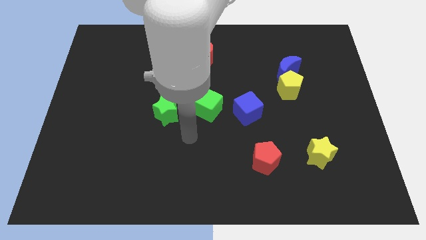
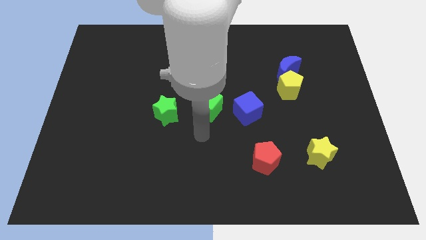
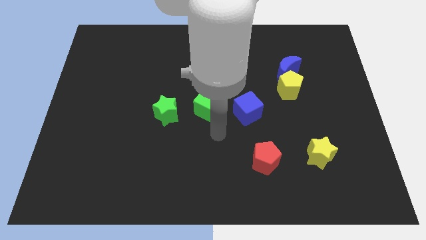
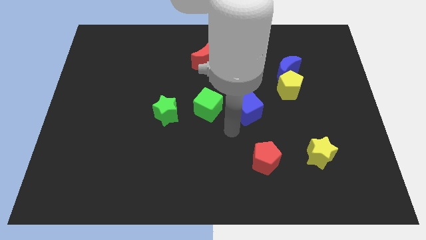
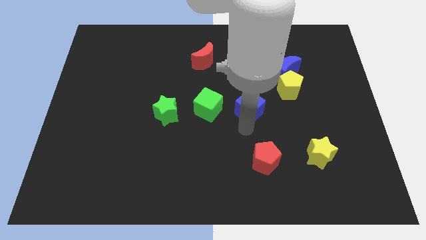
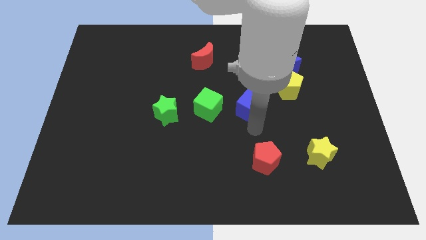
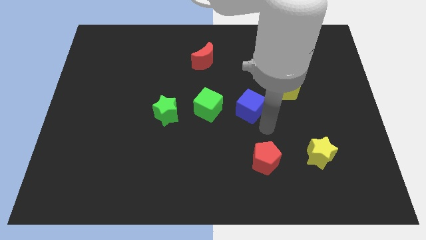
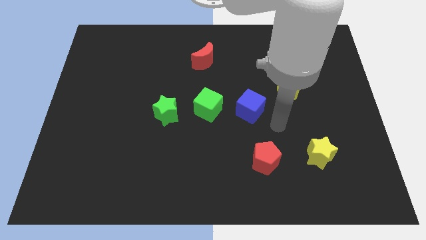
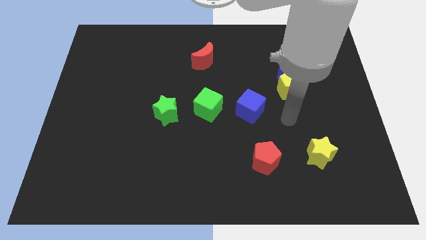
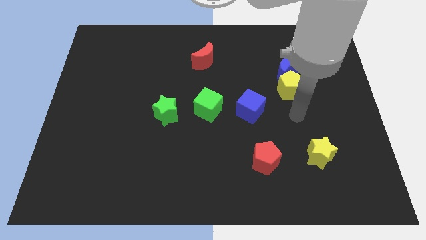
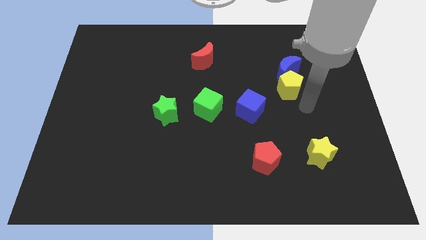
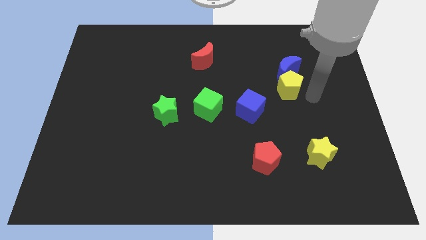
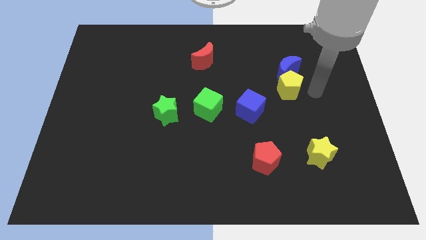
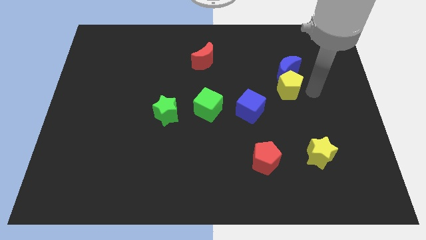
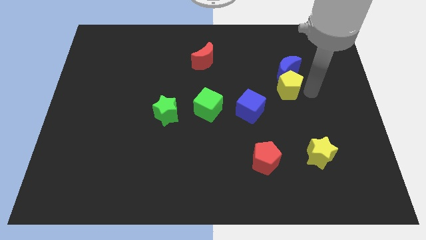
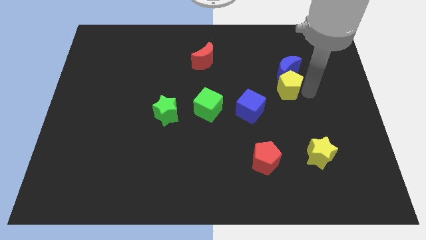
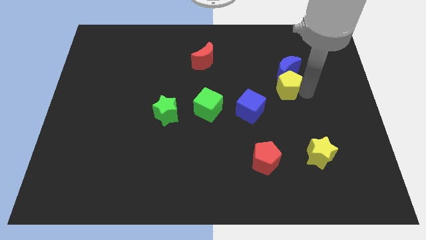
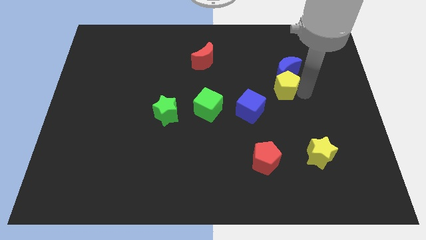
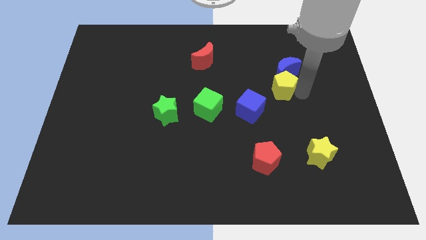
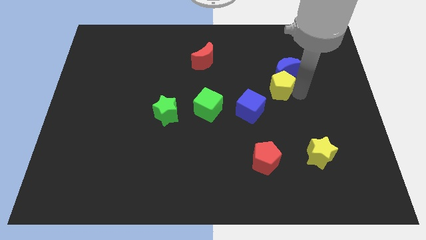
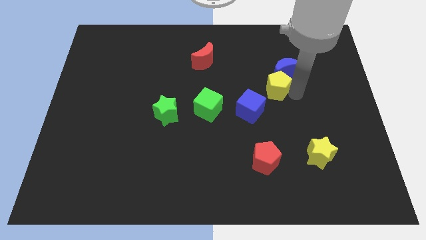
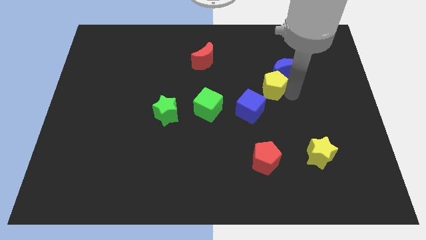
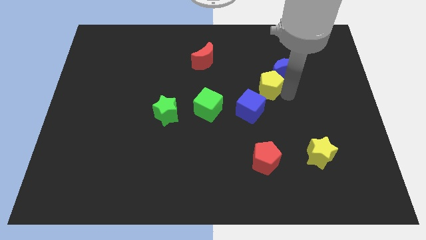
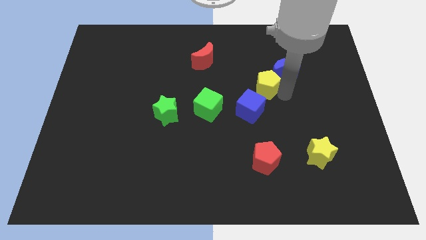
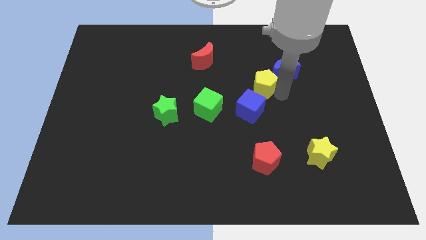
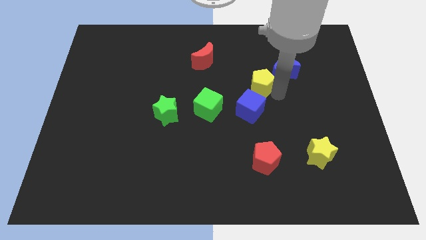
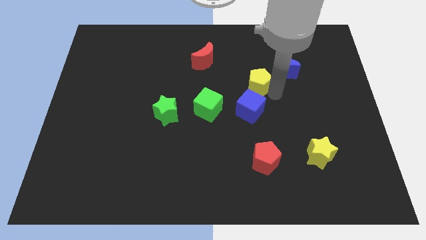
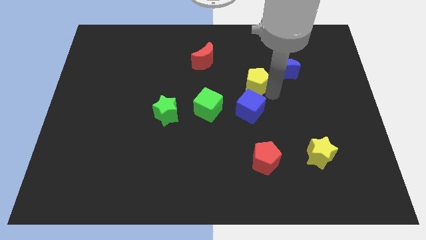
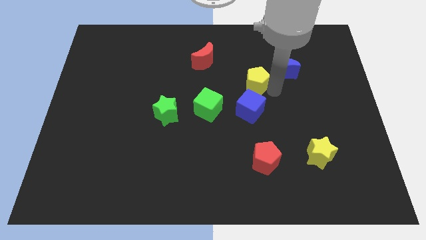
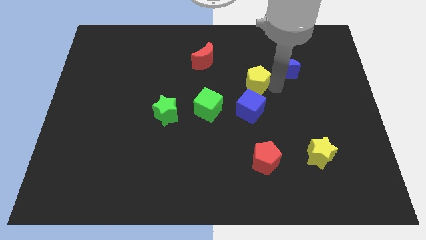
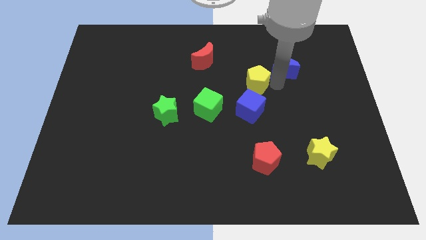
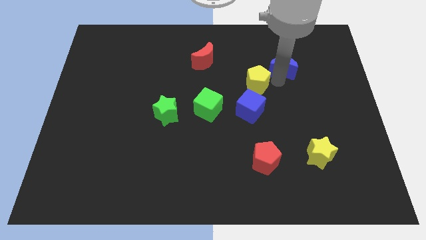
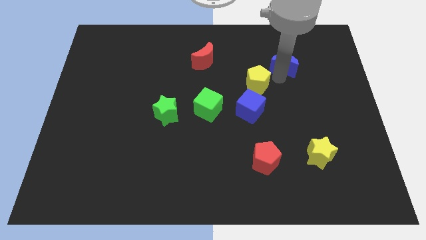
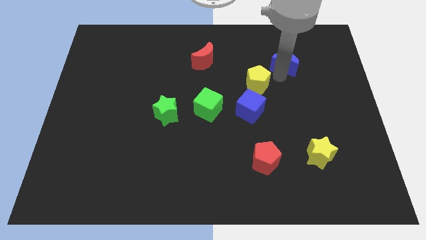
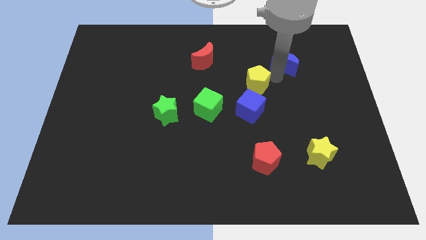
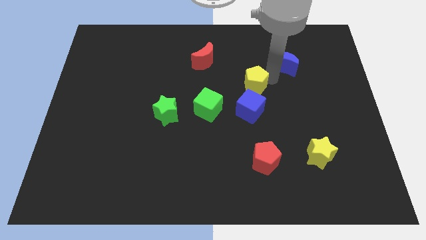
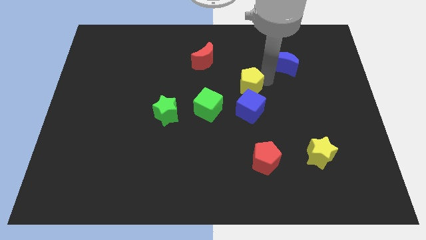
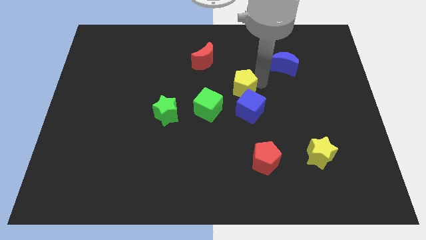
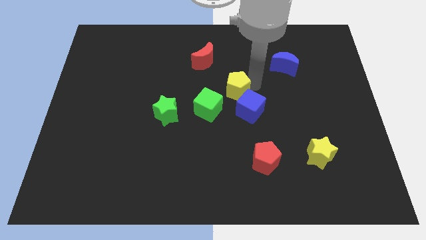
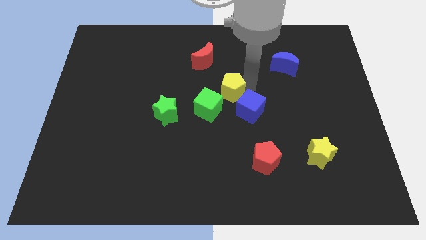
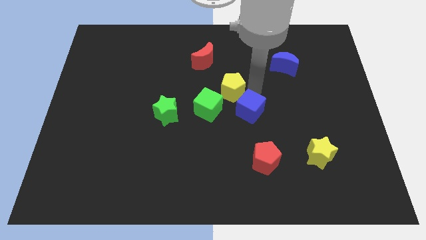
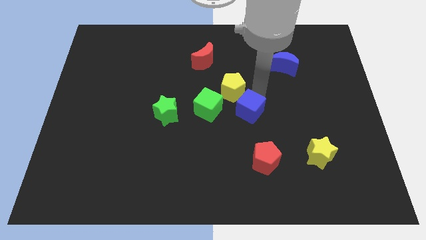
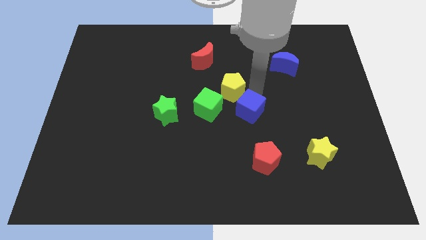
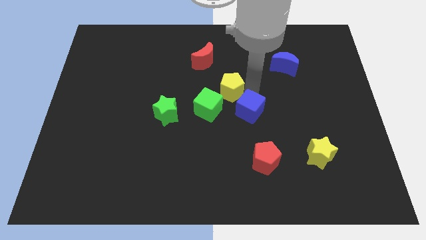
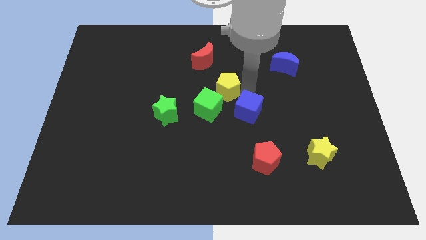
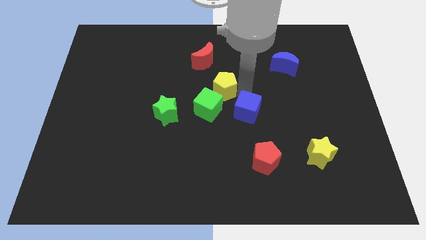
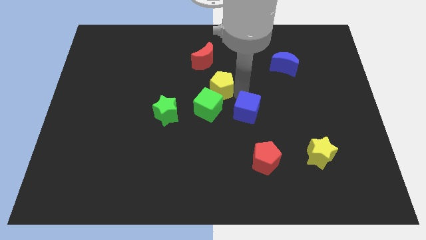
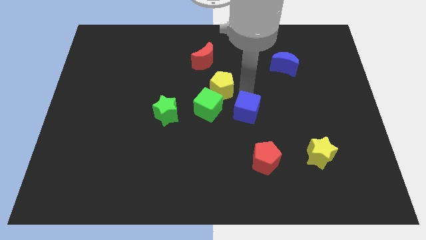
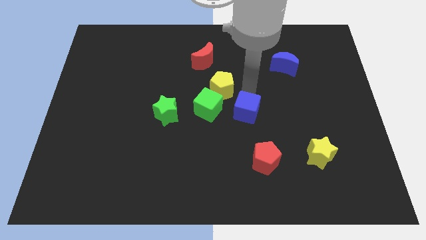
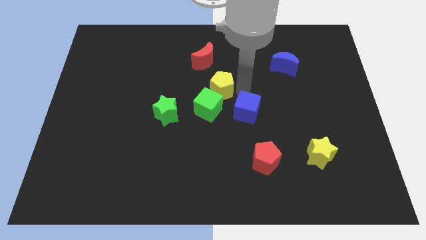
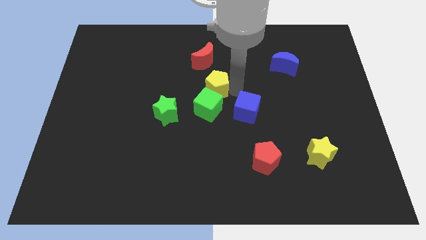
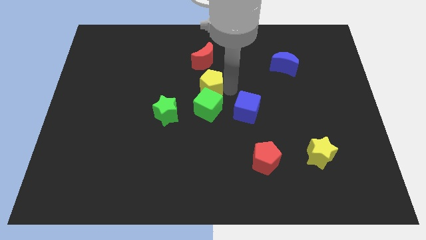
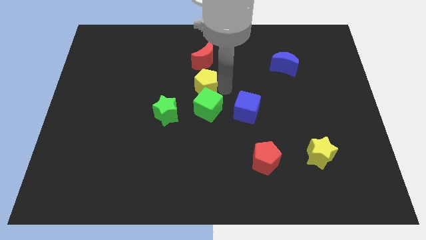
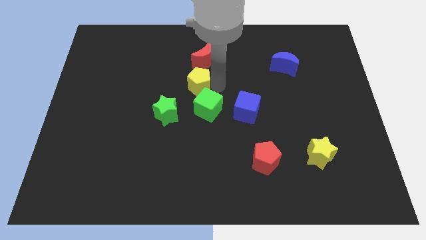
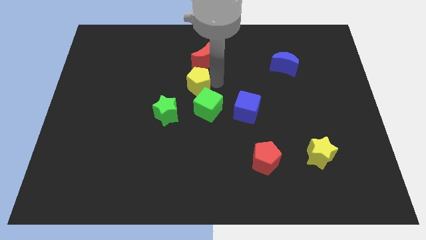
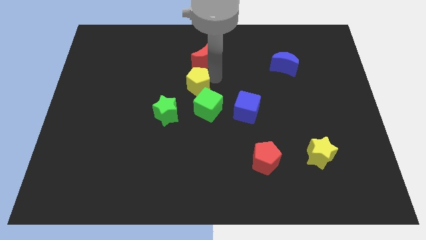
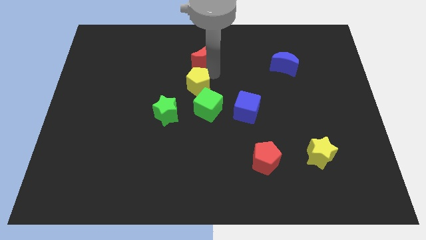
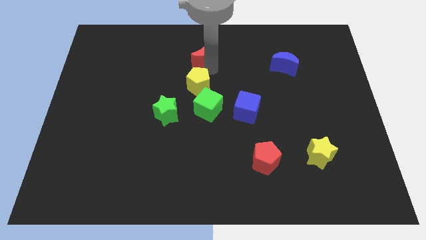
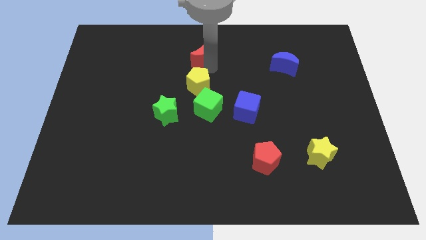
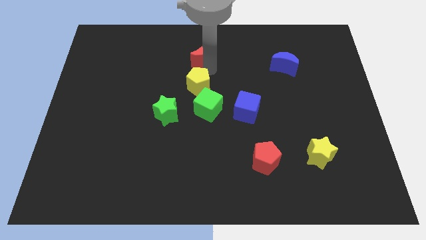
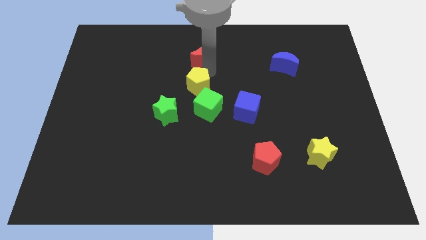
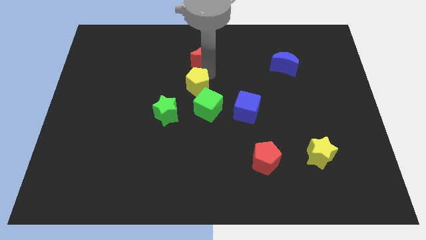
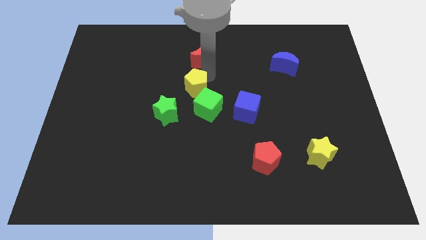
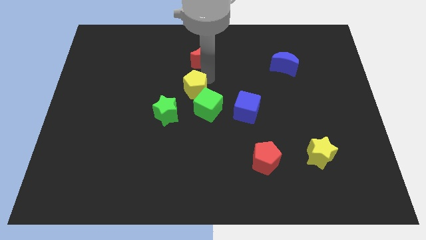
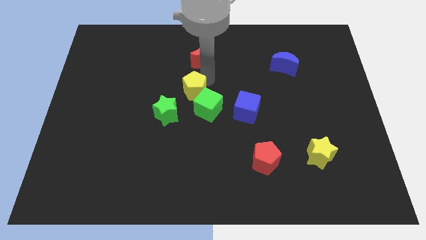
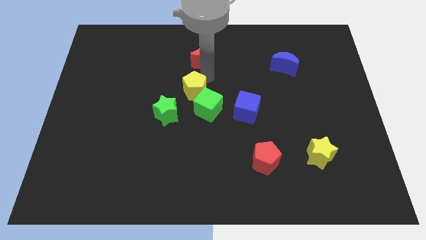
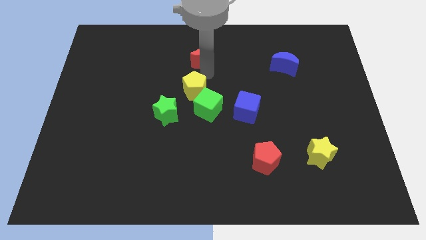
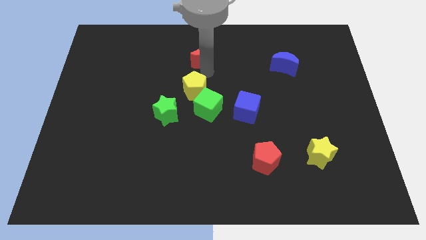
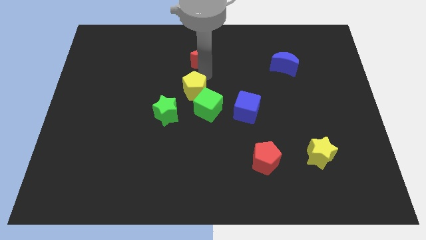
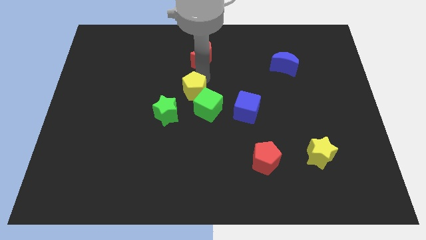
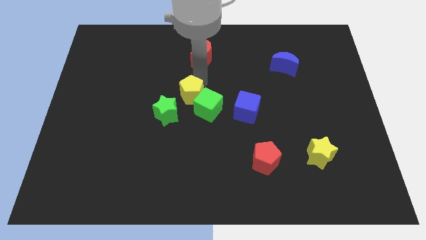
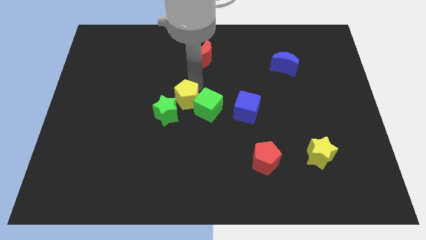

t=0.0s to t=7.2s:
put the yellow pentagon to the left side of the blue cube

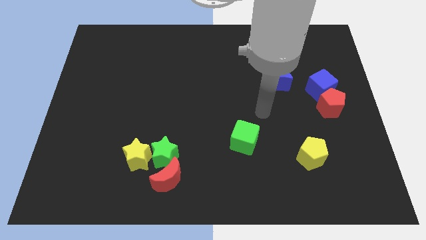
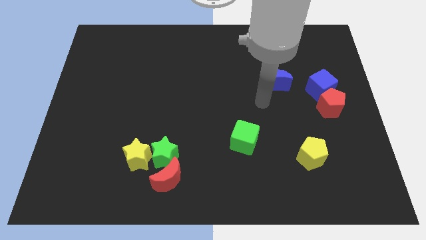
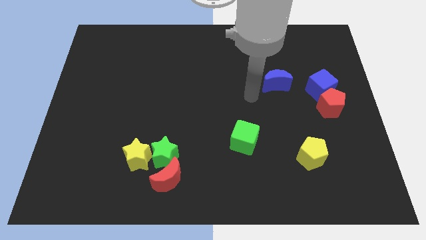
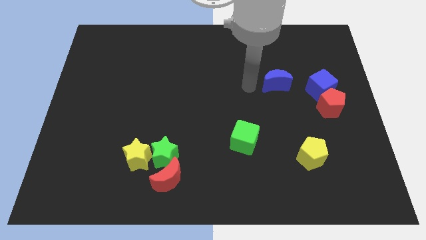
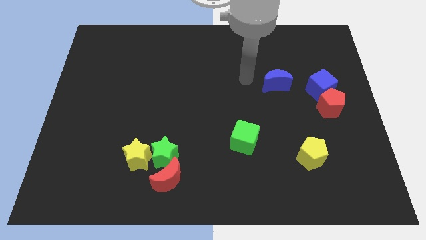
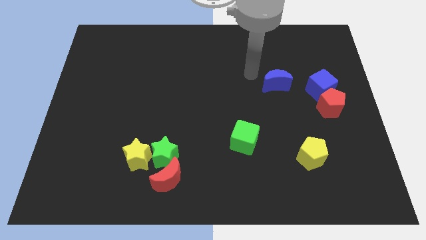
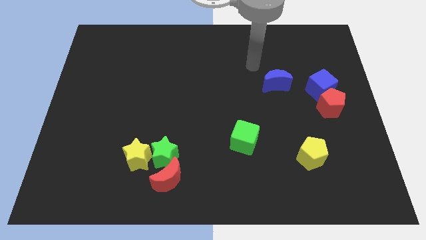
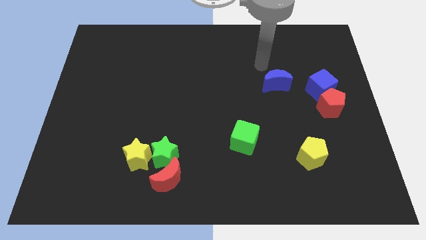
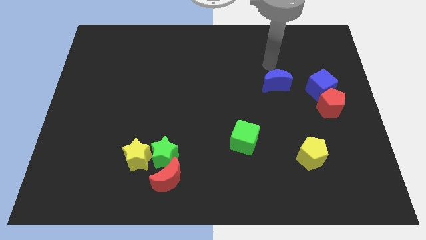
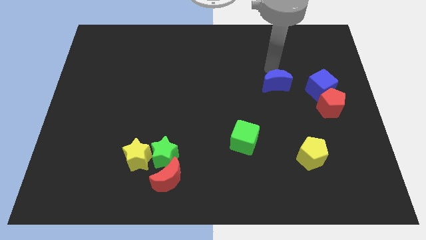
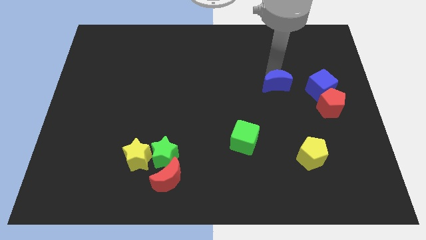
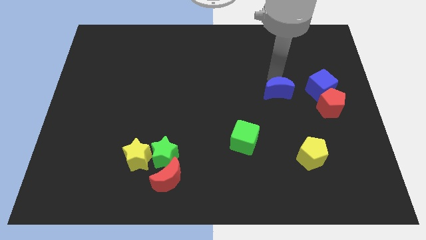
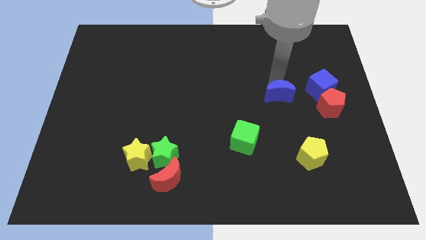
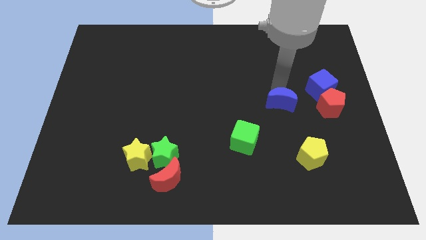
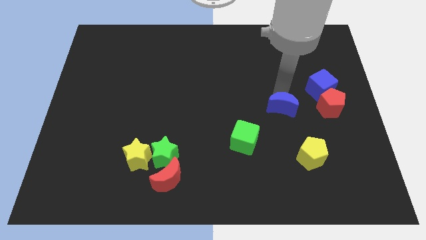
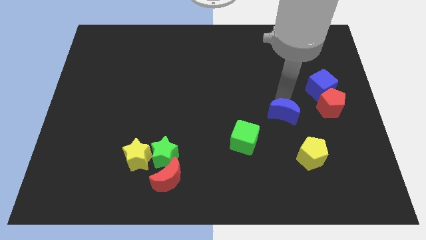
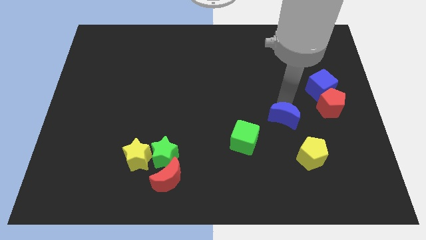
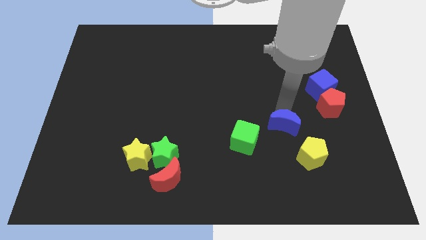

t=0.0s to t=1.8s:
move the blue moon right of the green cube
